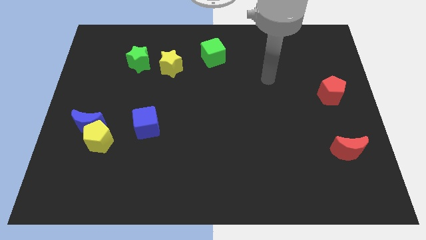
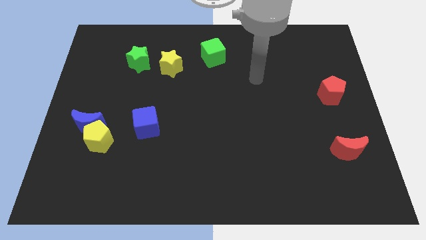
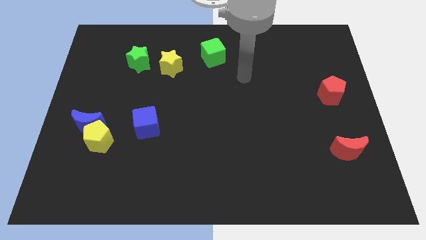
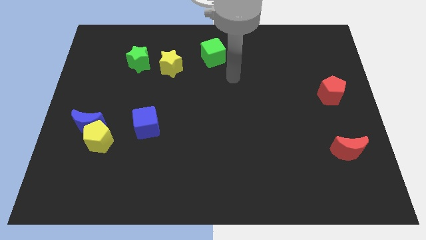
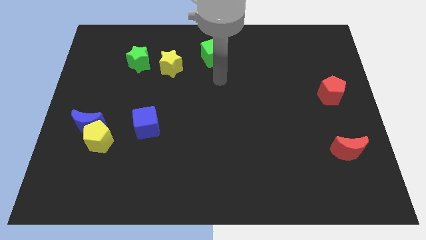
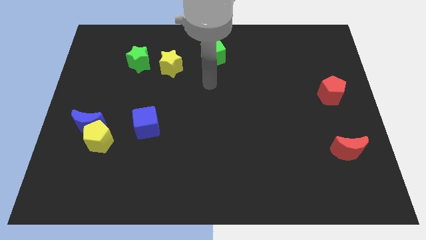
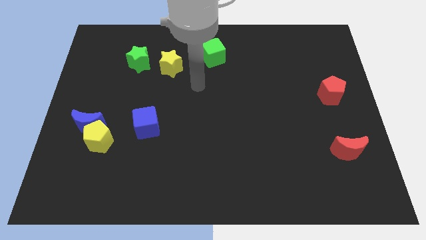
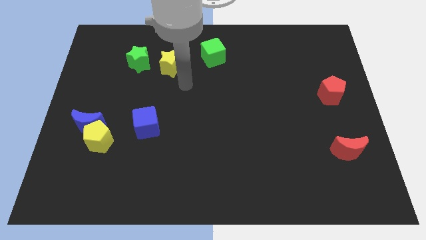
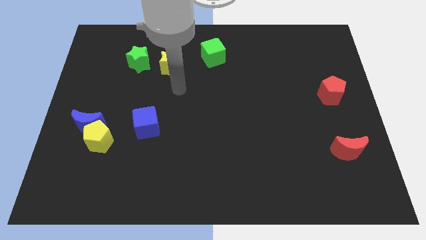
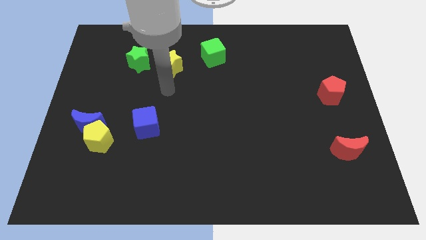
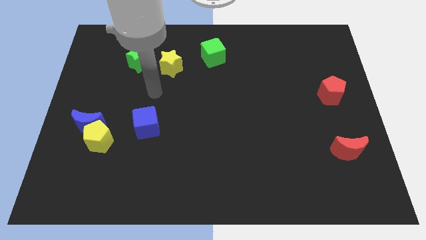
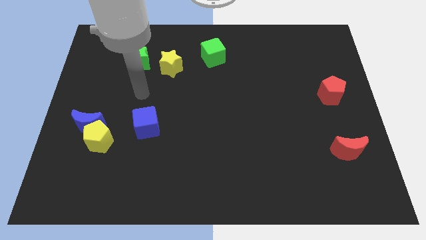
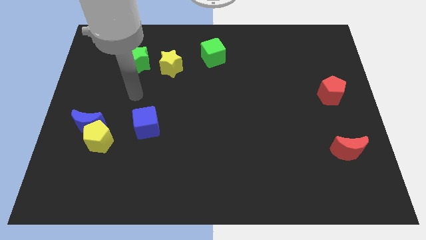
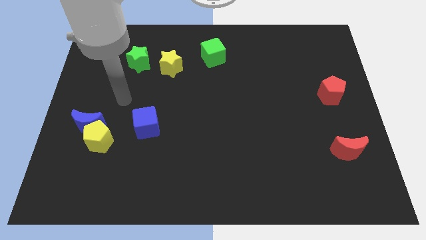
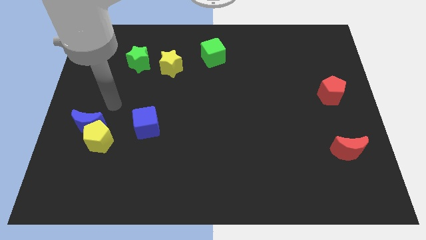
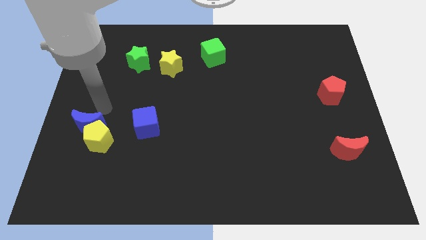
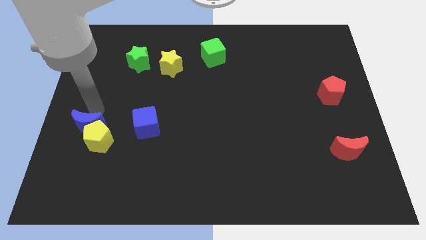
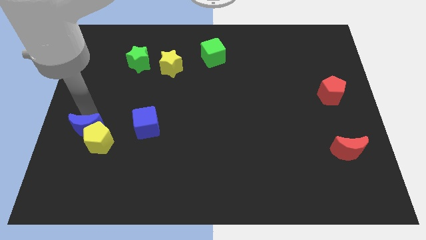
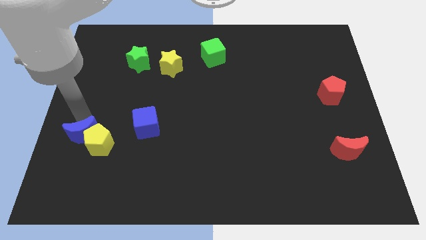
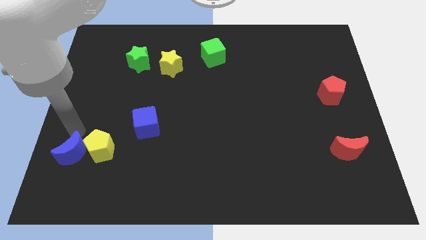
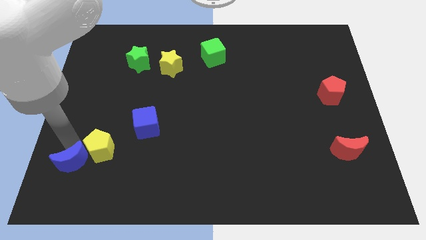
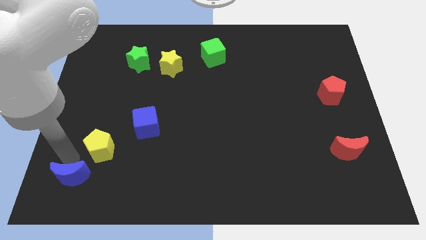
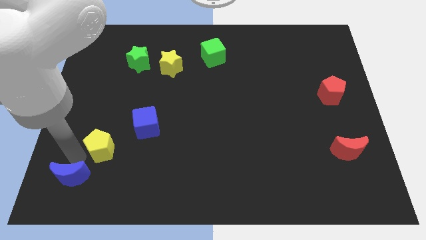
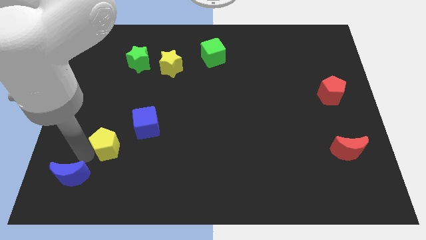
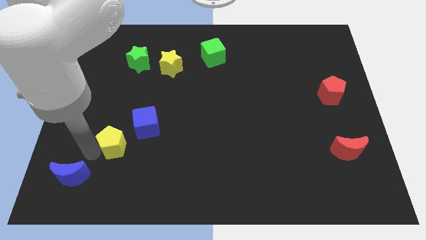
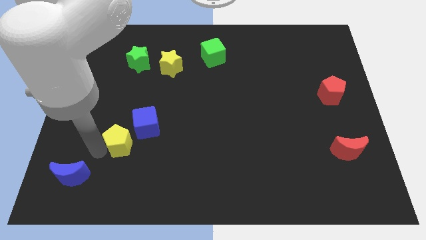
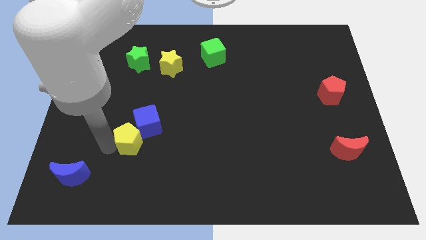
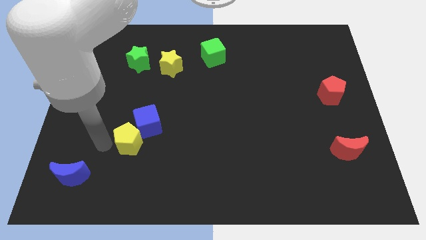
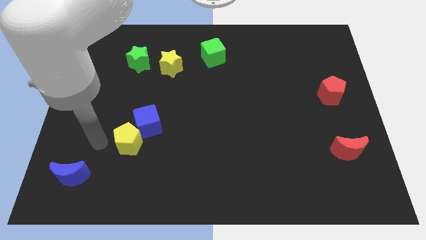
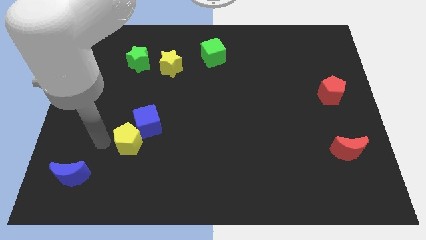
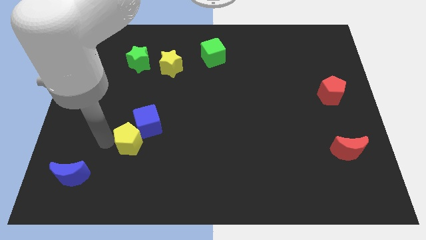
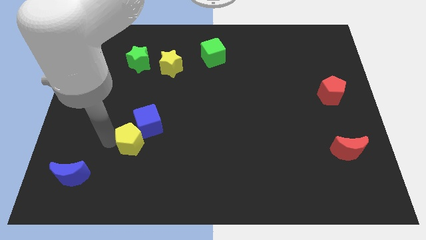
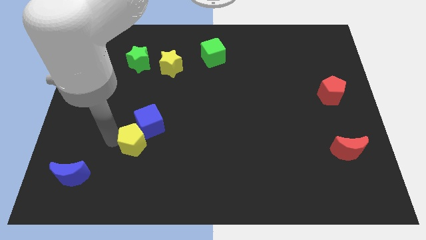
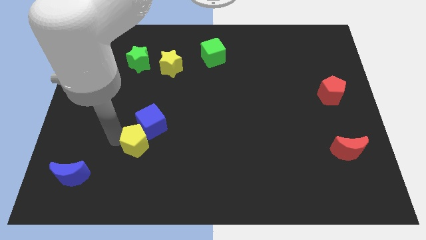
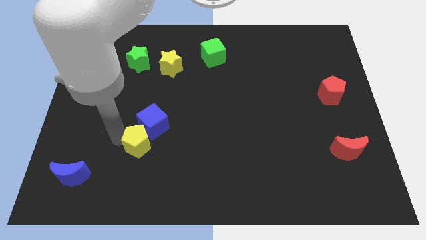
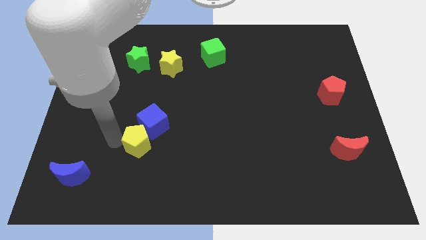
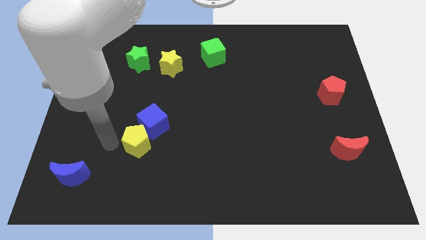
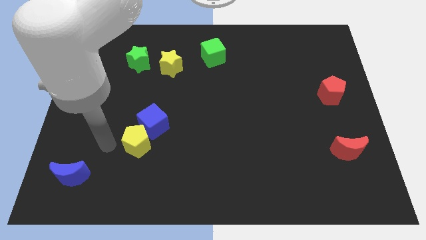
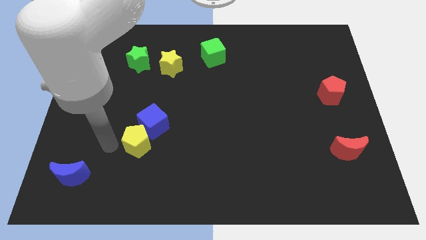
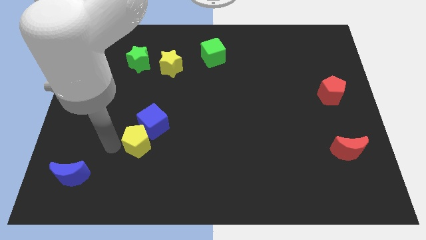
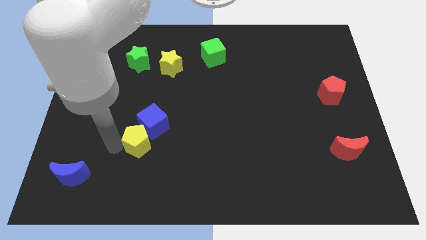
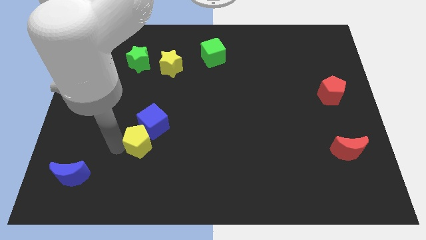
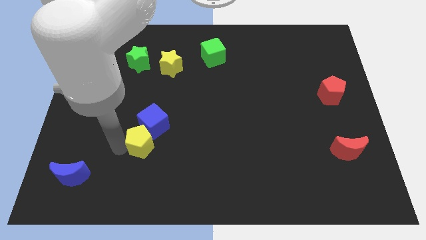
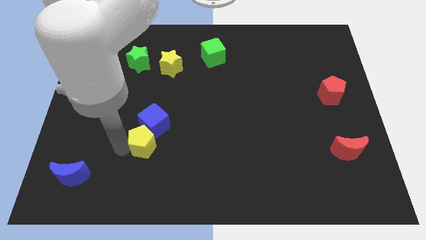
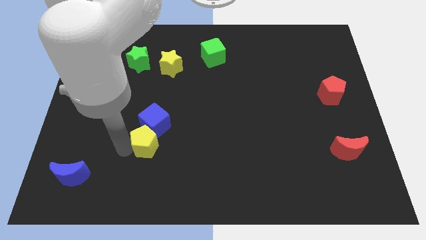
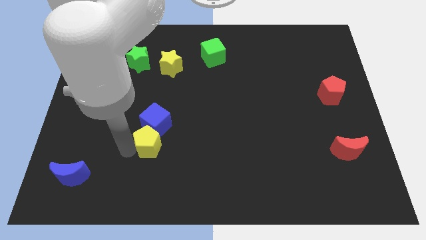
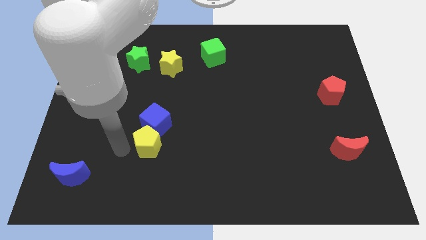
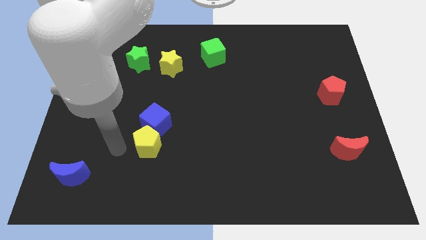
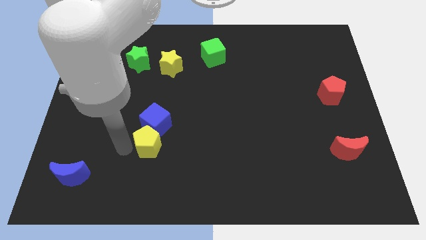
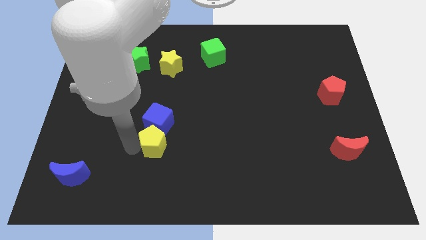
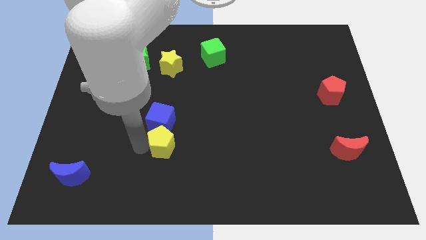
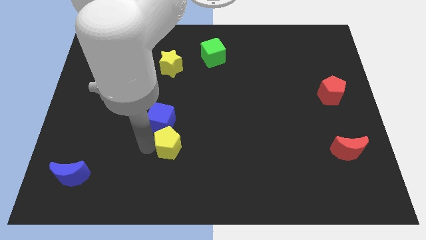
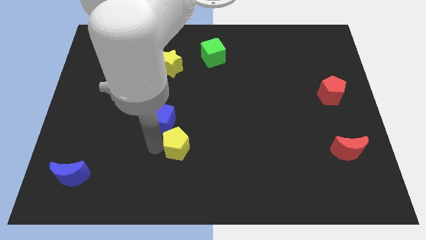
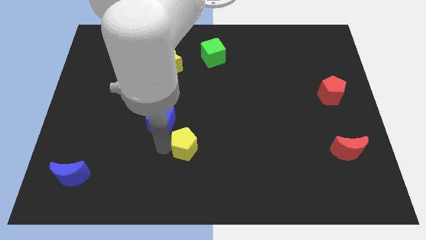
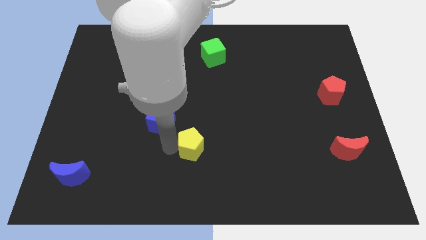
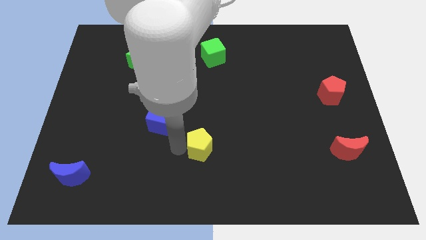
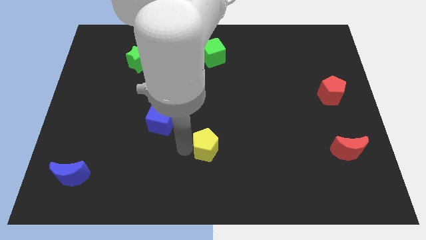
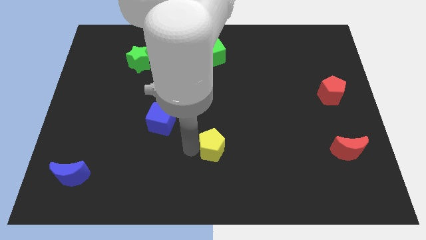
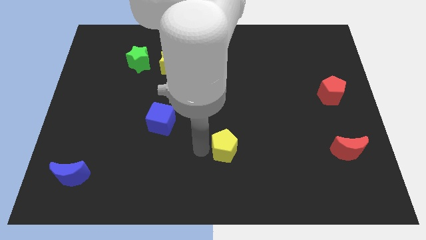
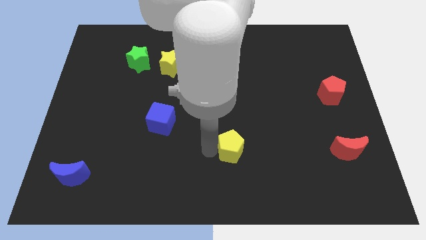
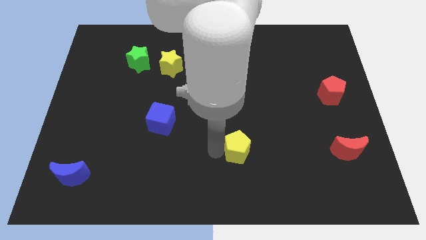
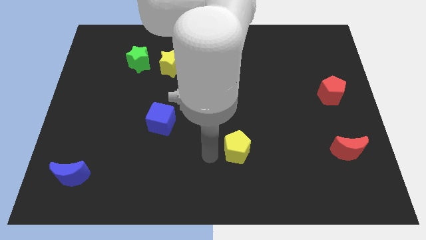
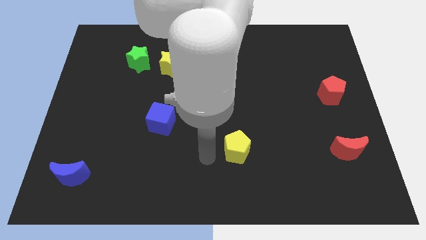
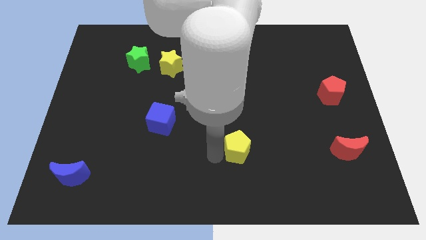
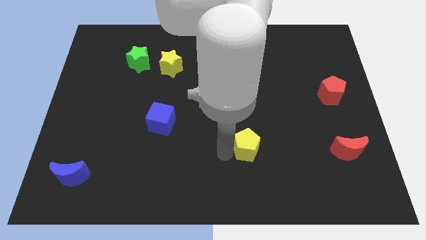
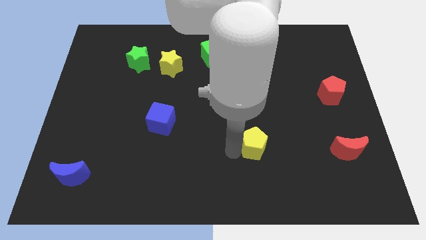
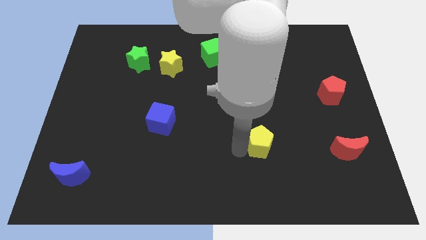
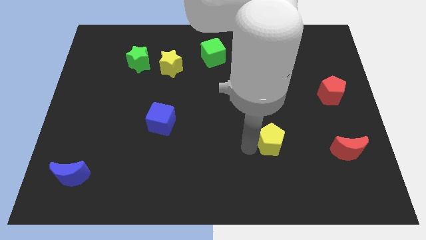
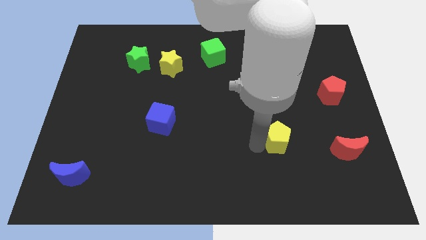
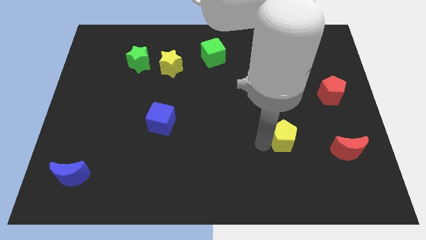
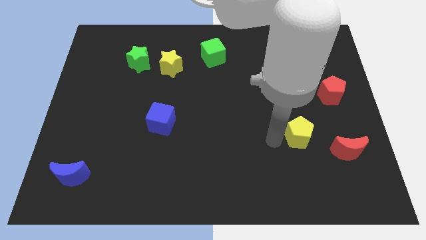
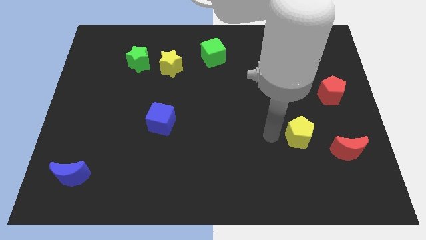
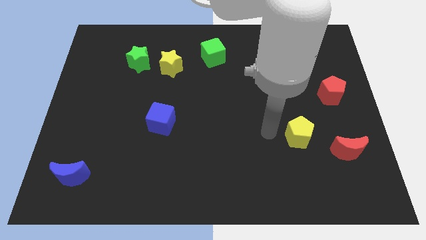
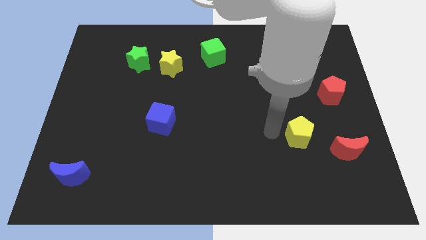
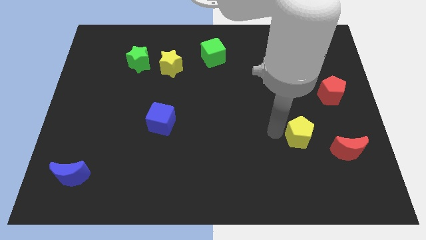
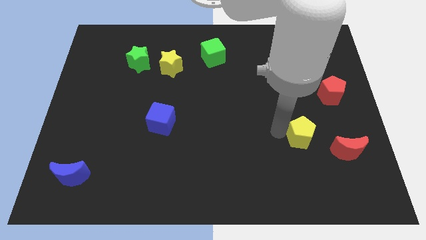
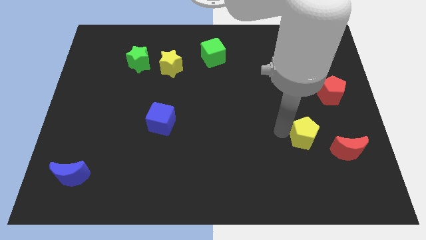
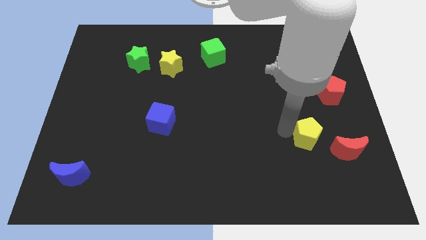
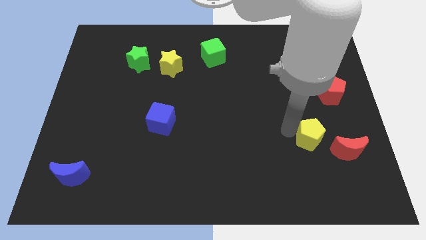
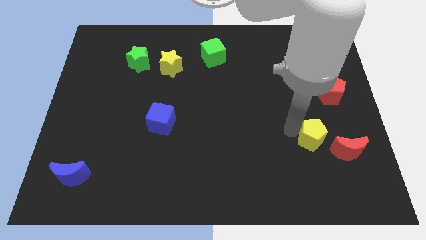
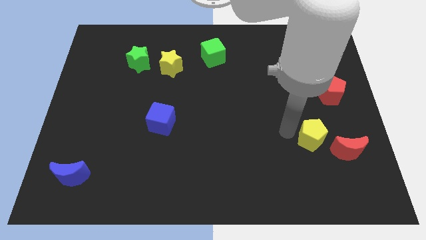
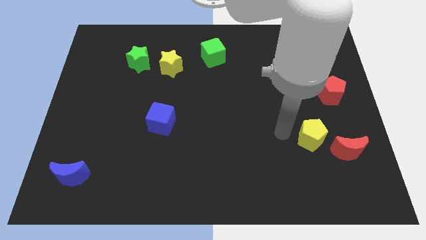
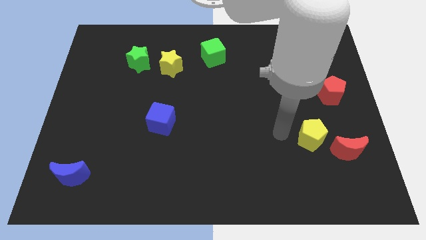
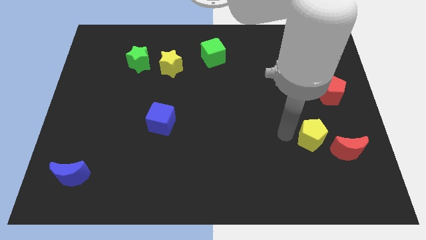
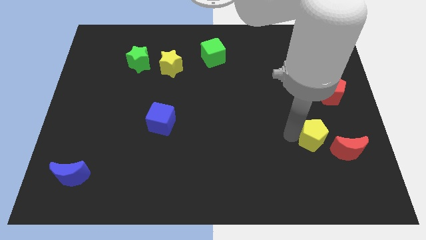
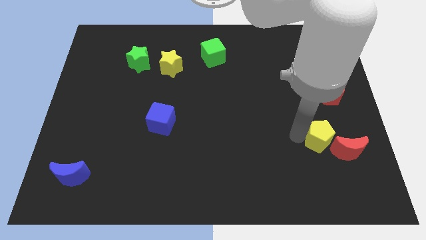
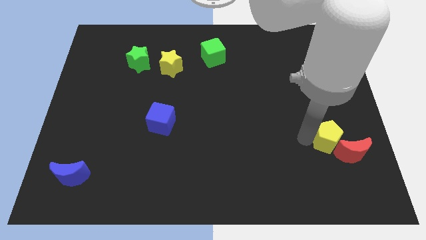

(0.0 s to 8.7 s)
push the yellow pentagon to the bottom of the red pentagon
